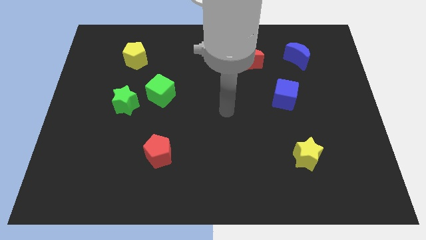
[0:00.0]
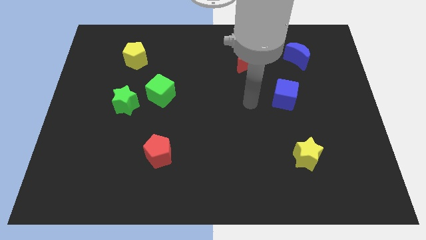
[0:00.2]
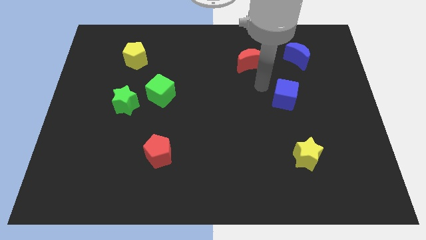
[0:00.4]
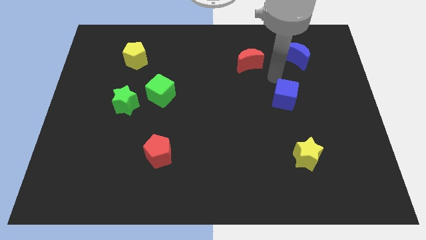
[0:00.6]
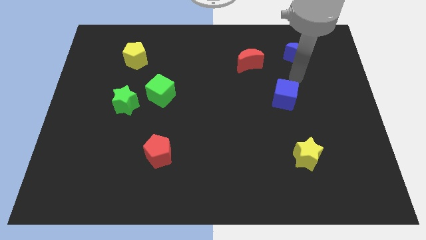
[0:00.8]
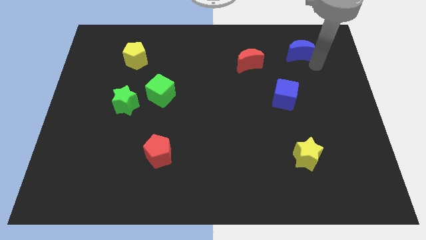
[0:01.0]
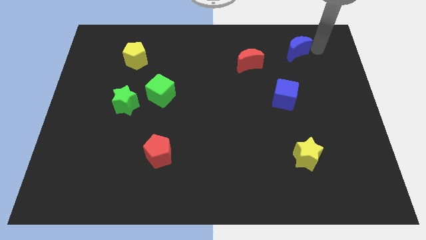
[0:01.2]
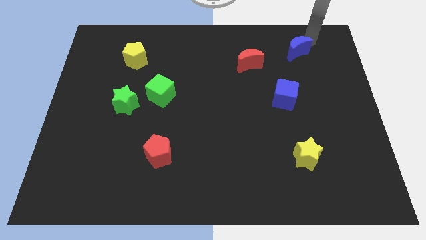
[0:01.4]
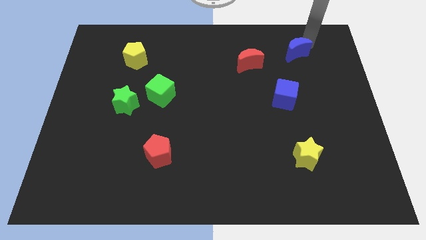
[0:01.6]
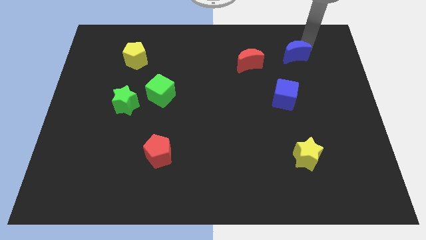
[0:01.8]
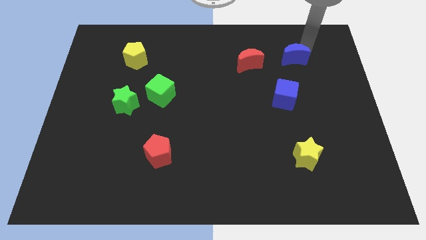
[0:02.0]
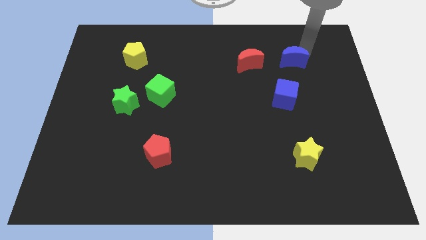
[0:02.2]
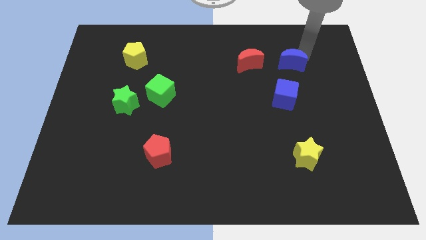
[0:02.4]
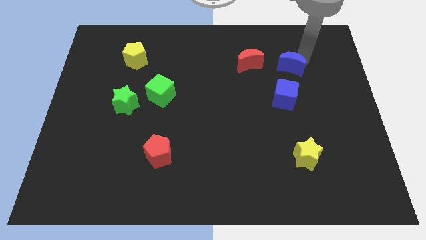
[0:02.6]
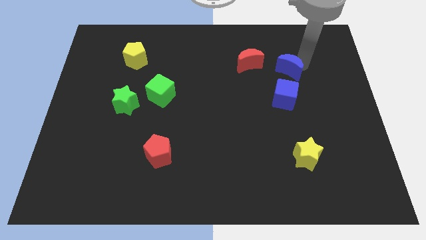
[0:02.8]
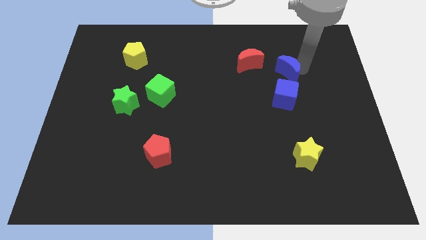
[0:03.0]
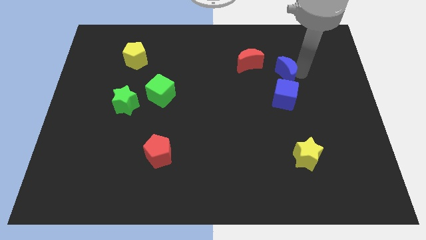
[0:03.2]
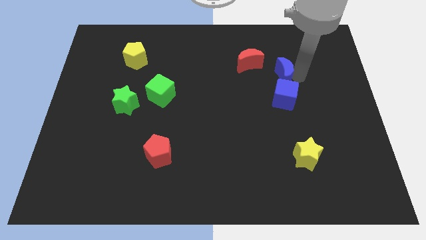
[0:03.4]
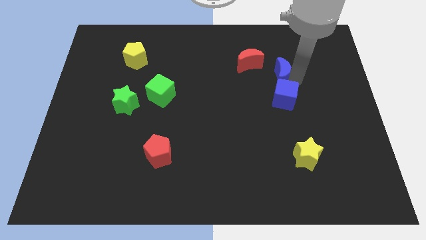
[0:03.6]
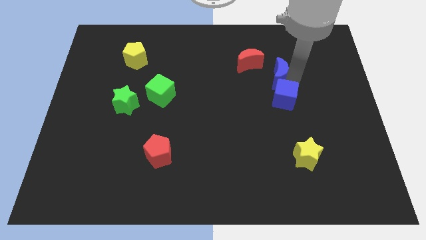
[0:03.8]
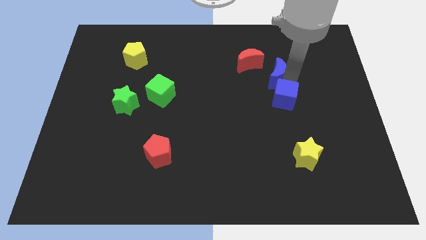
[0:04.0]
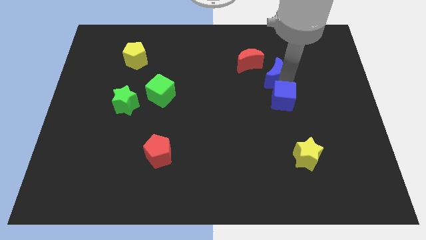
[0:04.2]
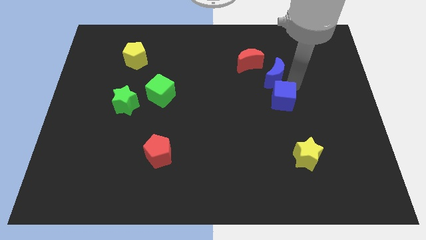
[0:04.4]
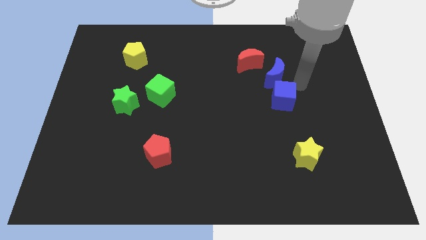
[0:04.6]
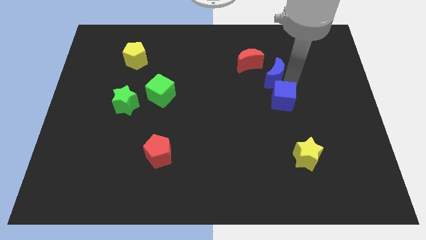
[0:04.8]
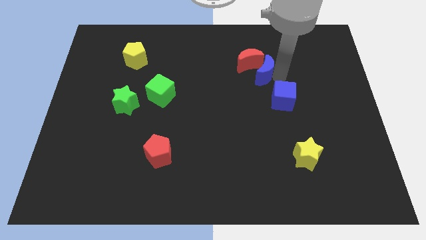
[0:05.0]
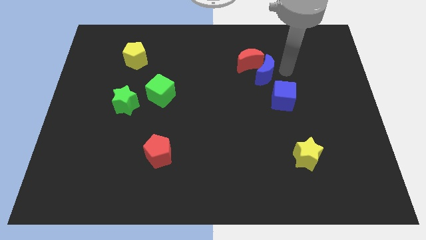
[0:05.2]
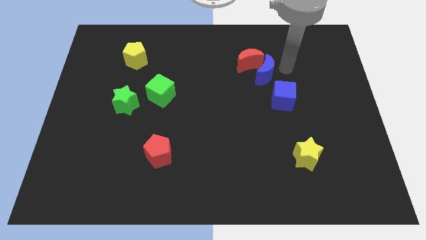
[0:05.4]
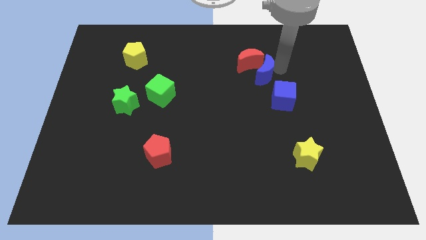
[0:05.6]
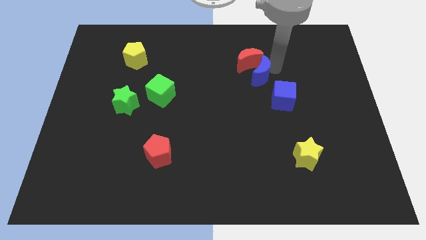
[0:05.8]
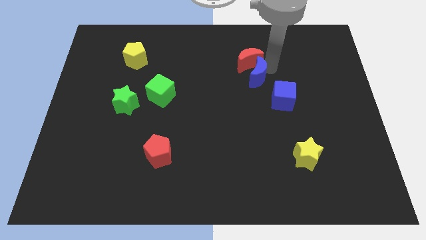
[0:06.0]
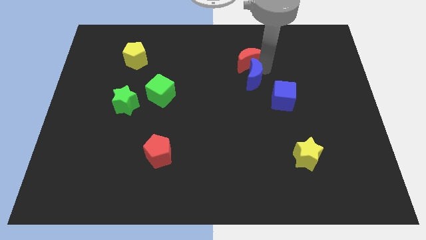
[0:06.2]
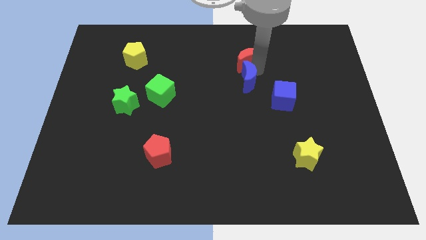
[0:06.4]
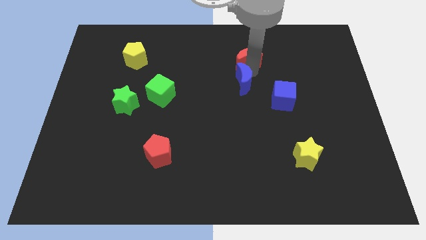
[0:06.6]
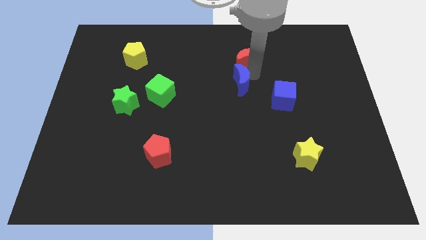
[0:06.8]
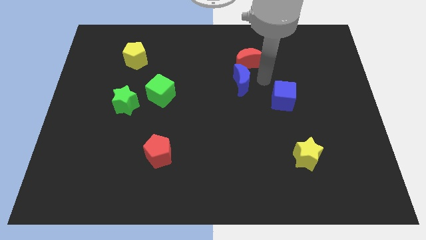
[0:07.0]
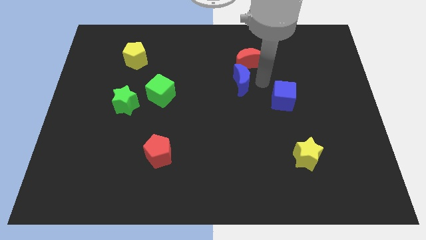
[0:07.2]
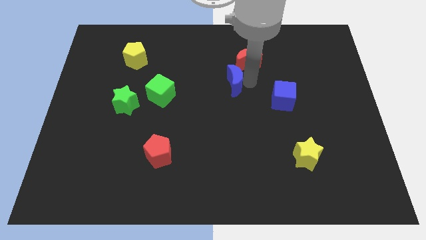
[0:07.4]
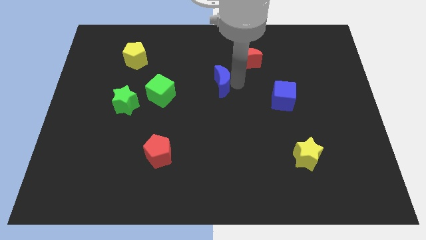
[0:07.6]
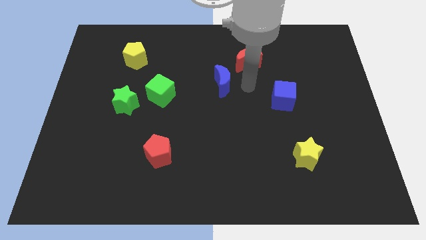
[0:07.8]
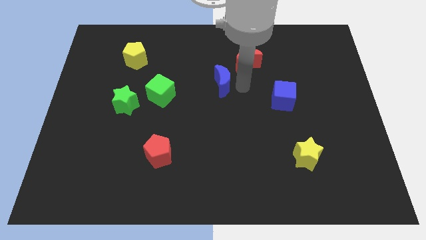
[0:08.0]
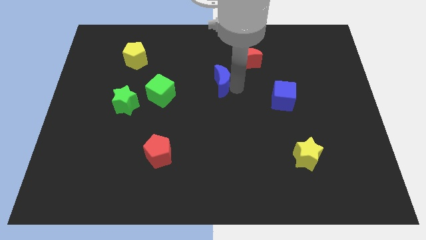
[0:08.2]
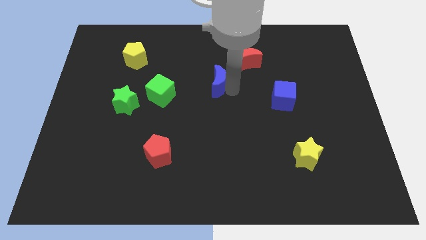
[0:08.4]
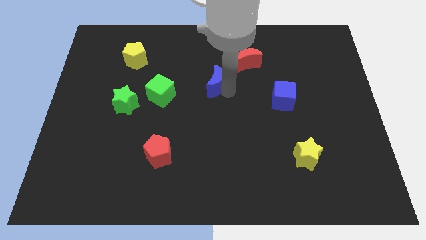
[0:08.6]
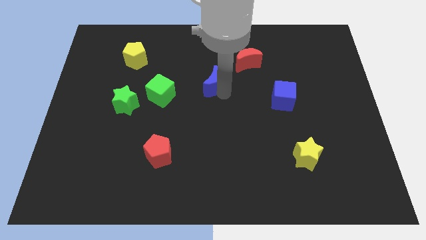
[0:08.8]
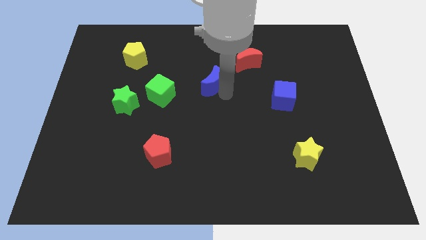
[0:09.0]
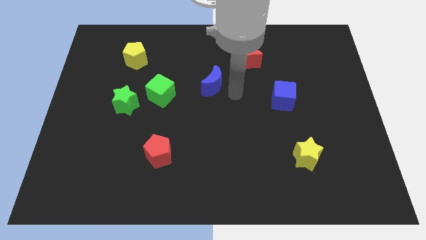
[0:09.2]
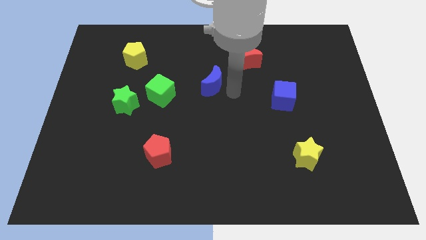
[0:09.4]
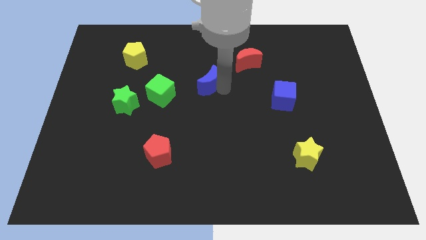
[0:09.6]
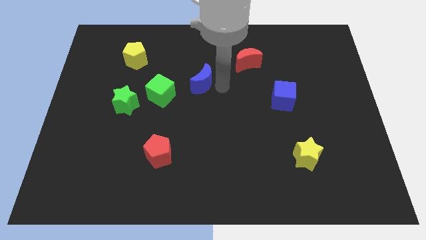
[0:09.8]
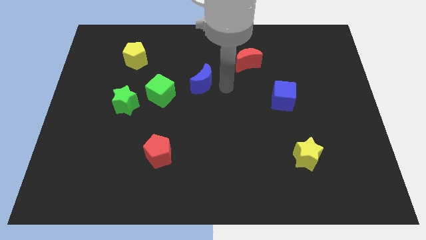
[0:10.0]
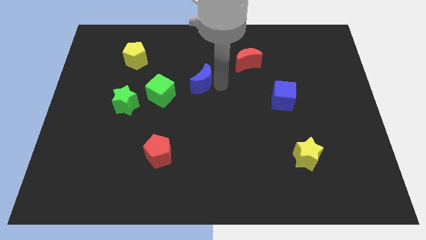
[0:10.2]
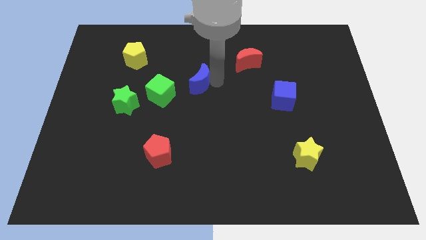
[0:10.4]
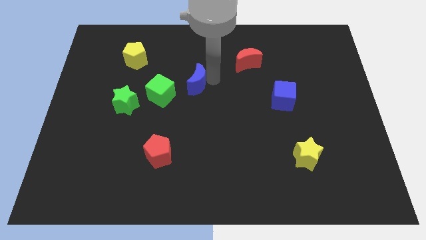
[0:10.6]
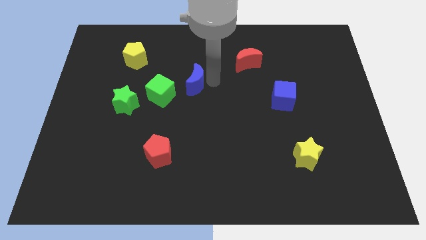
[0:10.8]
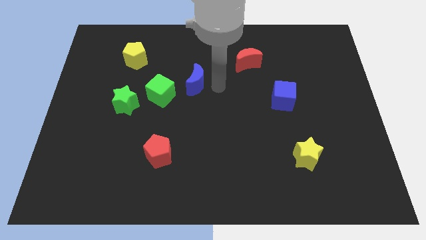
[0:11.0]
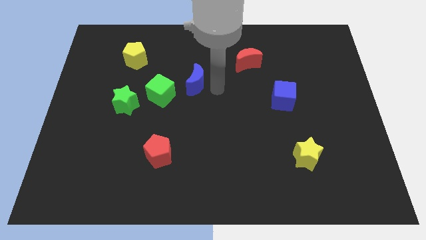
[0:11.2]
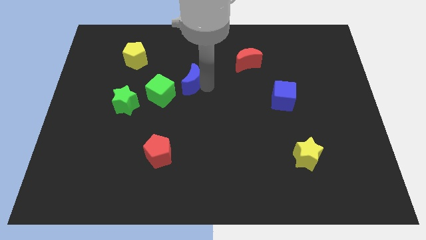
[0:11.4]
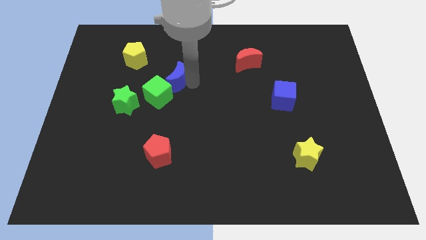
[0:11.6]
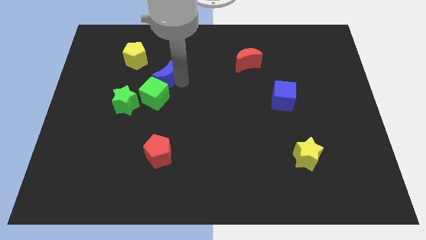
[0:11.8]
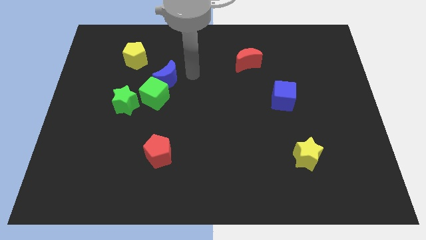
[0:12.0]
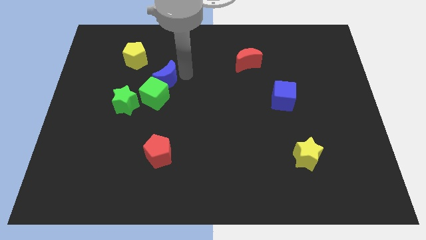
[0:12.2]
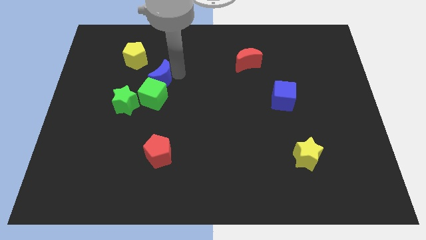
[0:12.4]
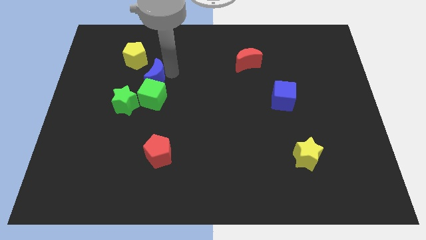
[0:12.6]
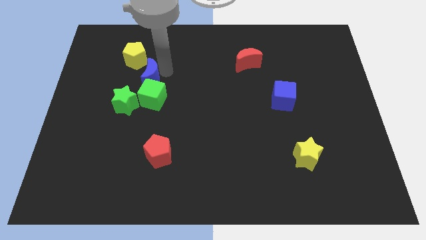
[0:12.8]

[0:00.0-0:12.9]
move the blue moon to the bottom side of the yellow pentagon
